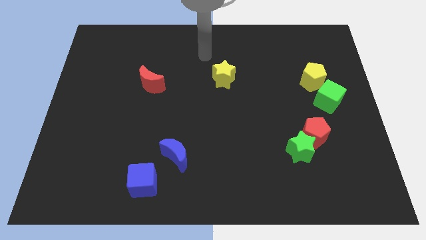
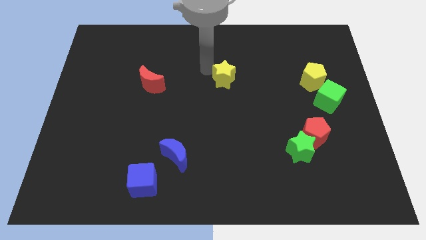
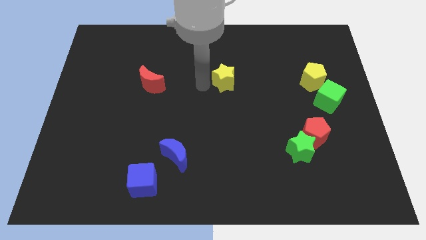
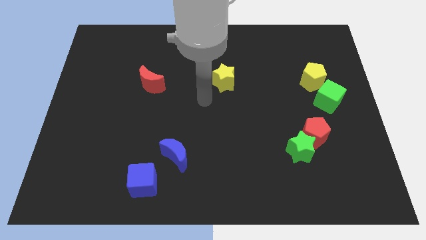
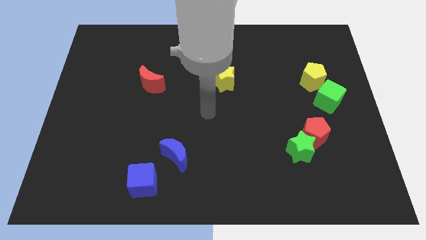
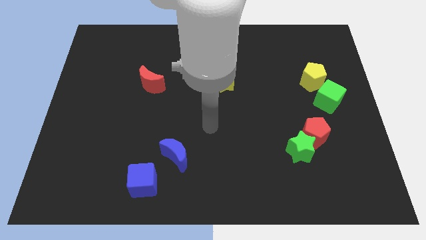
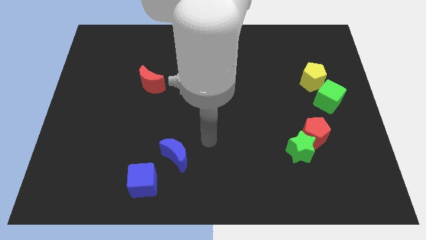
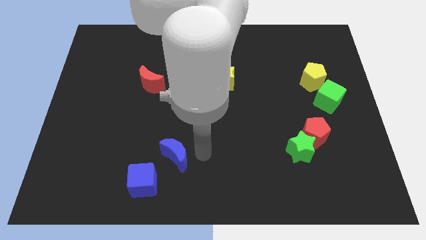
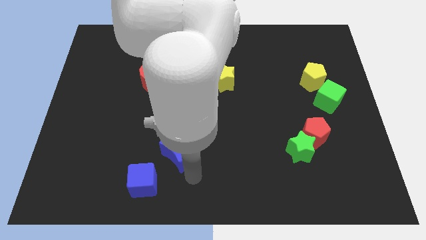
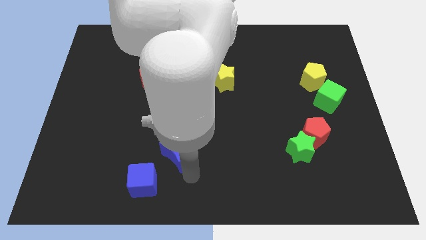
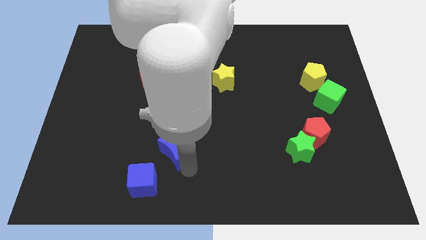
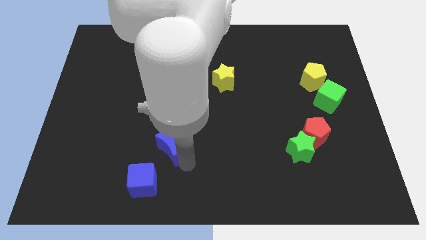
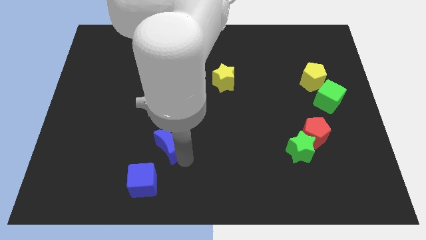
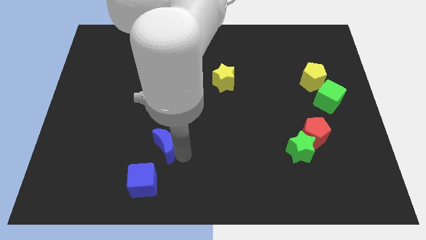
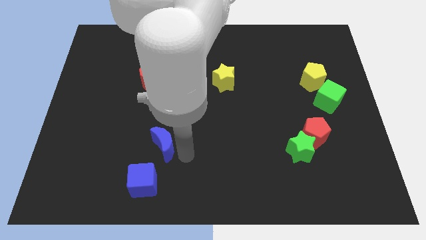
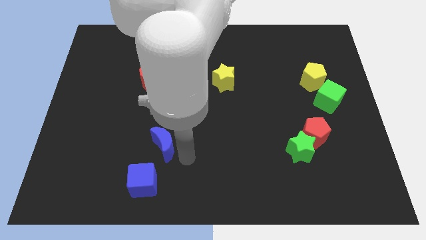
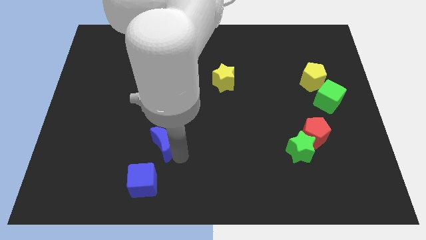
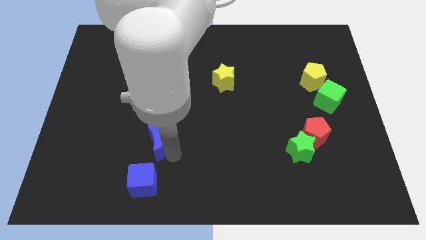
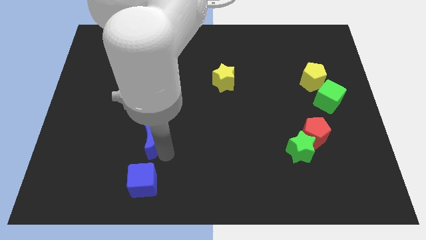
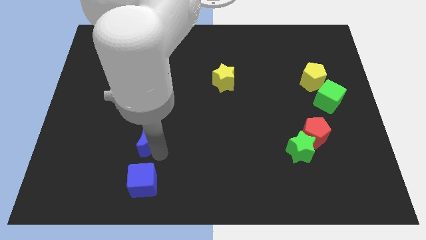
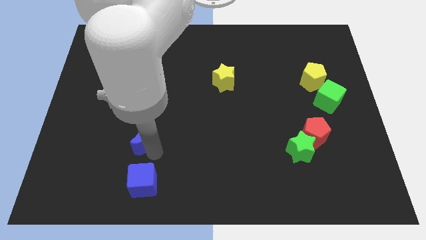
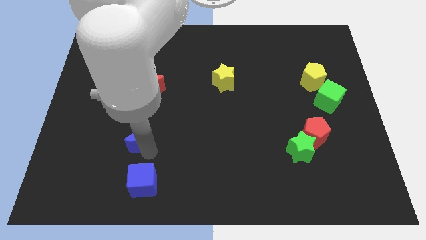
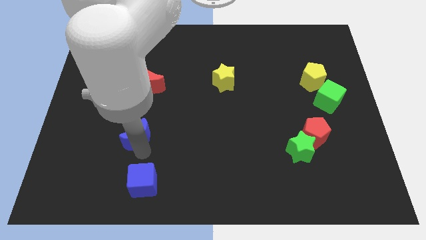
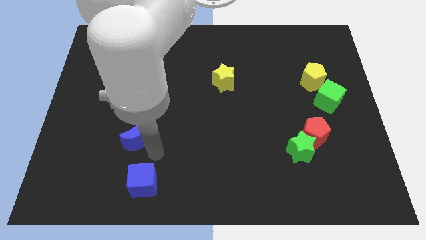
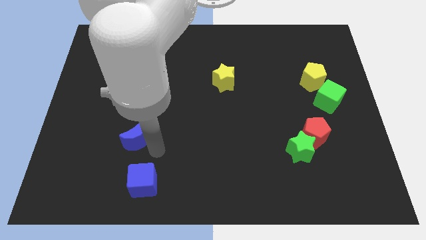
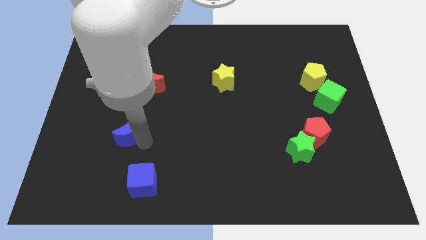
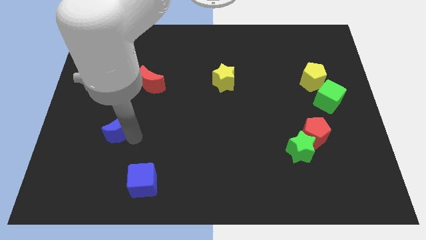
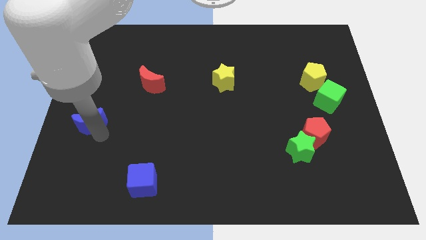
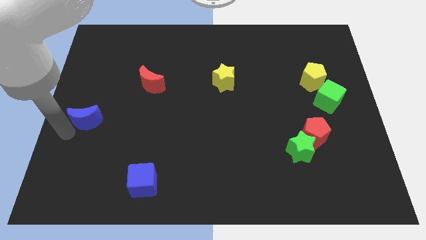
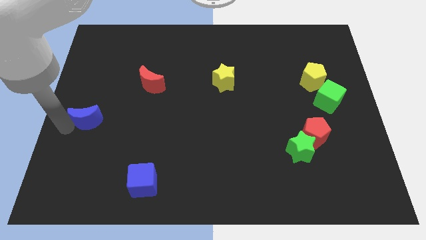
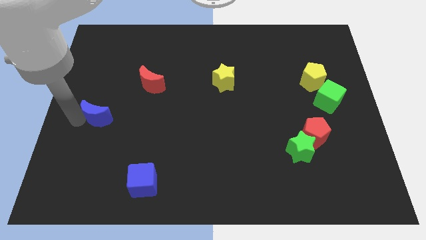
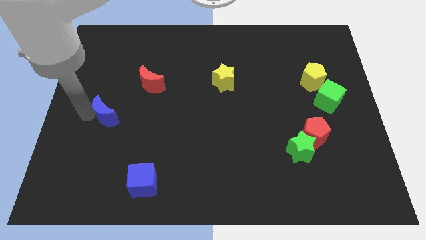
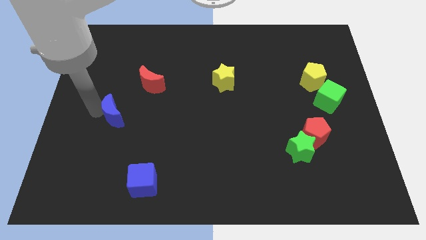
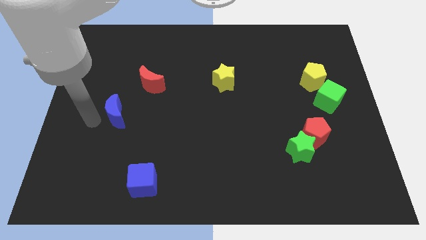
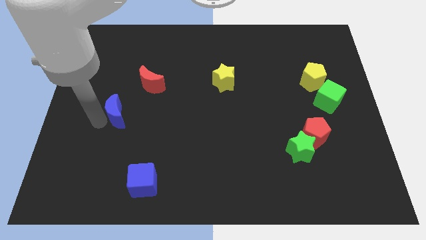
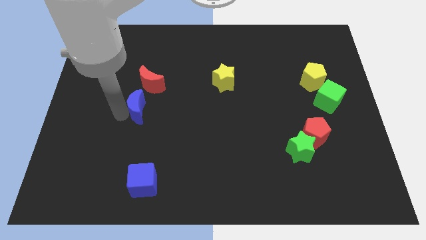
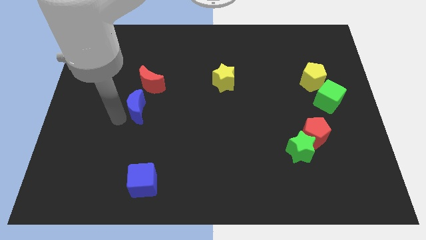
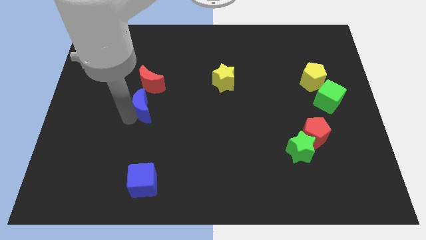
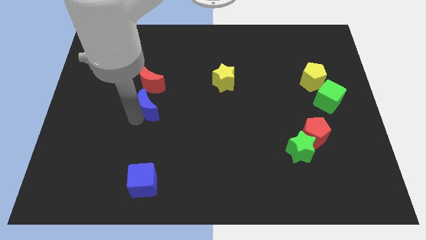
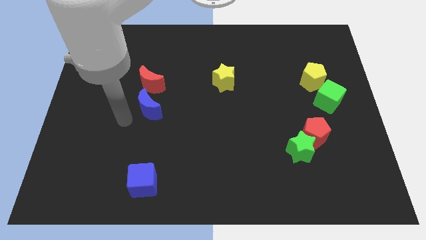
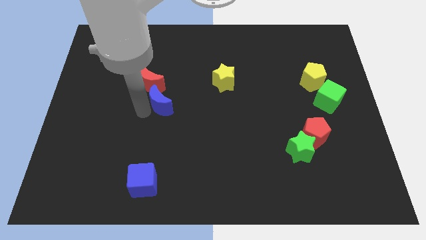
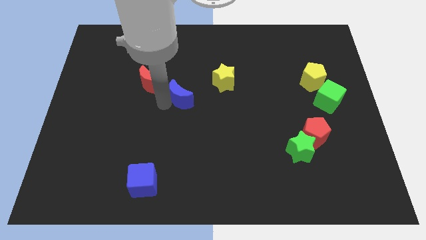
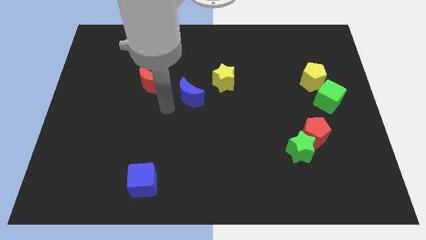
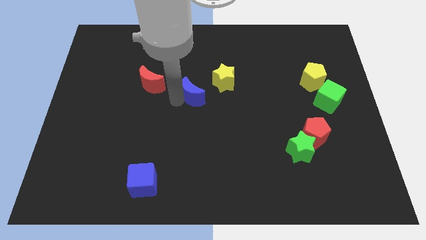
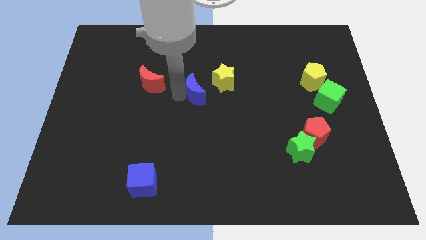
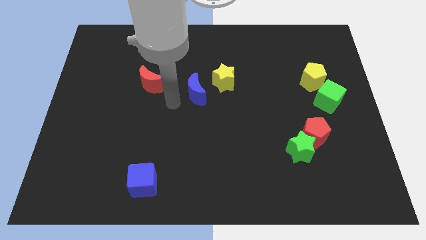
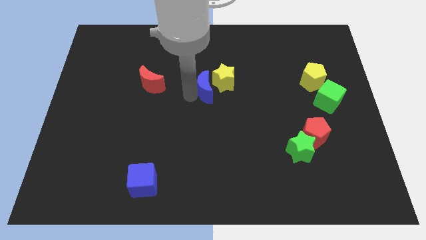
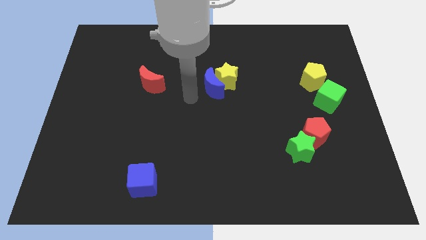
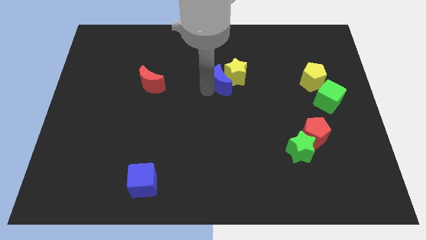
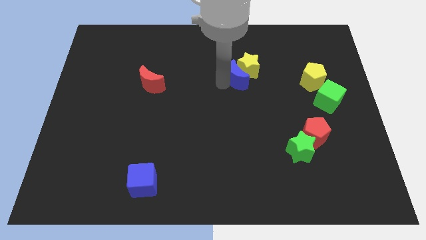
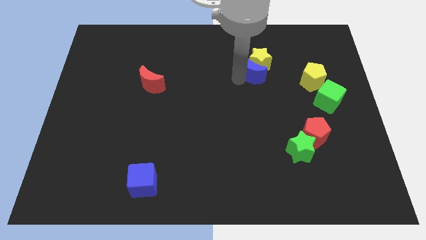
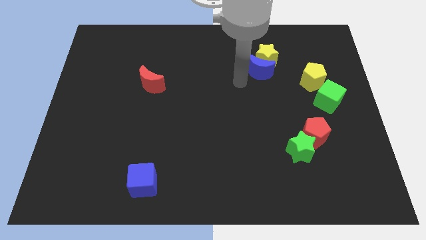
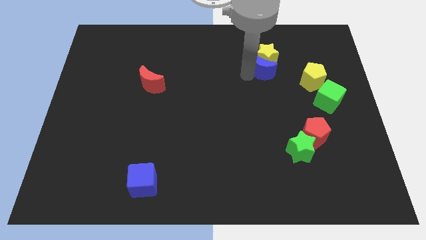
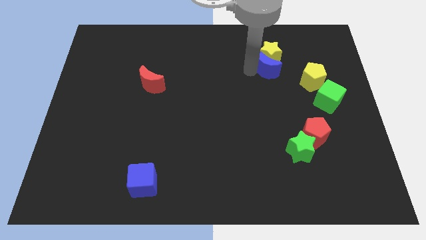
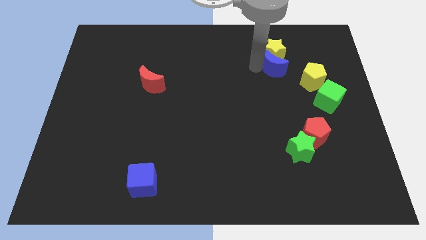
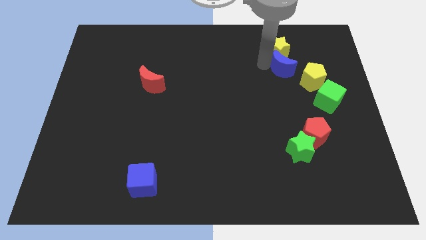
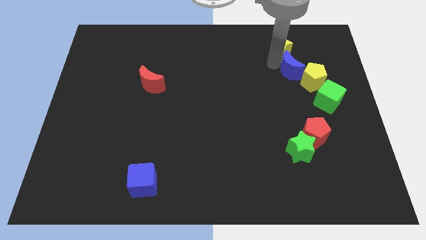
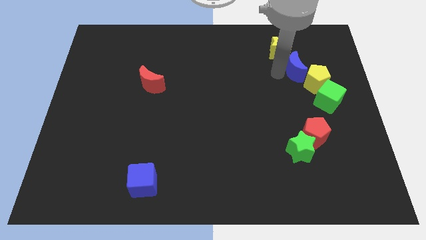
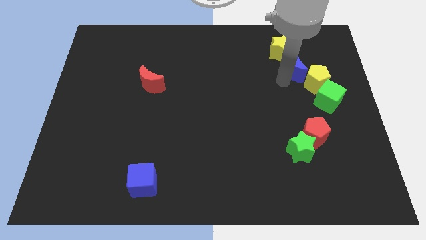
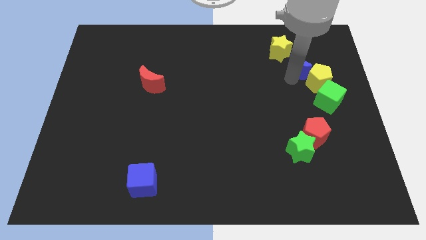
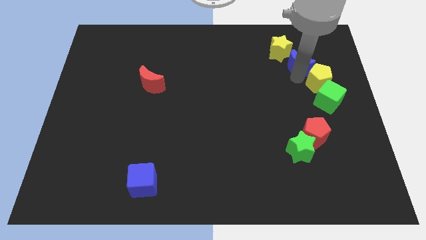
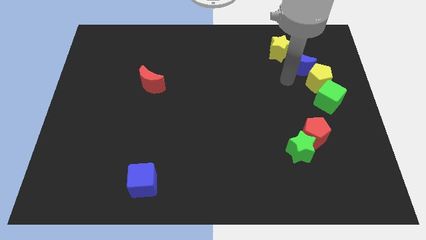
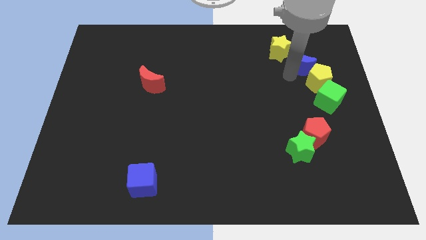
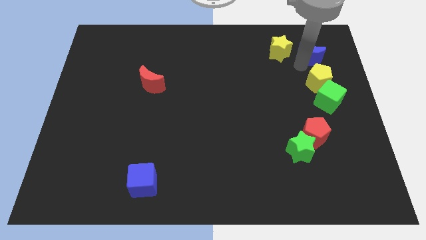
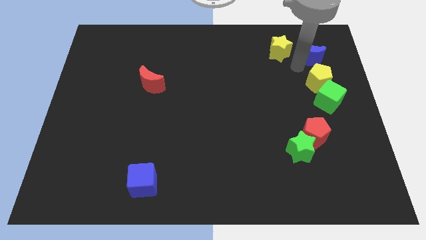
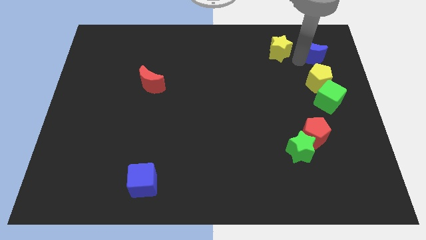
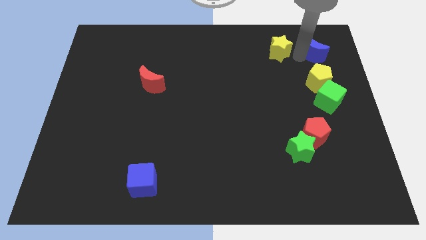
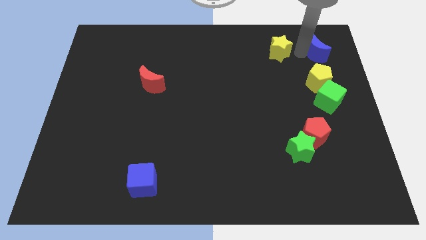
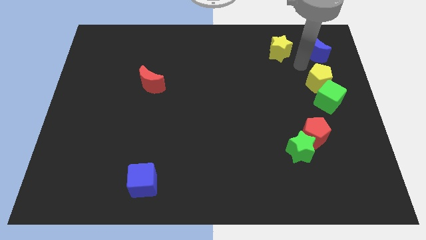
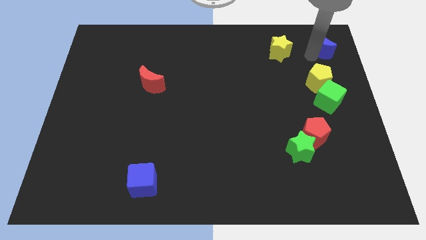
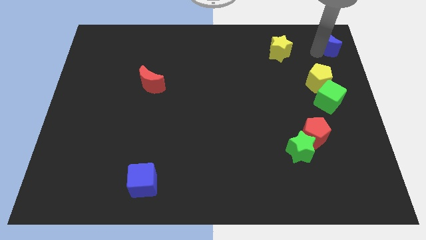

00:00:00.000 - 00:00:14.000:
slide the blue moon to the top right of the board
